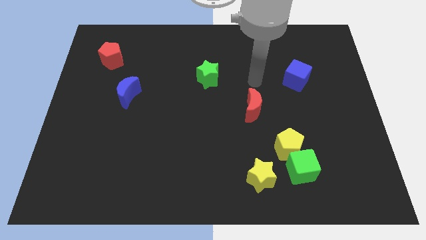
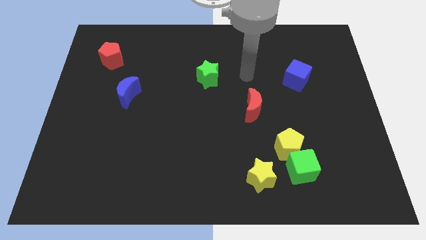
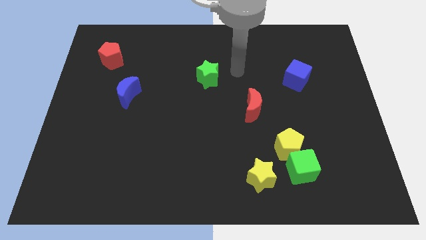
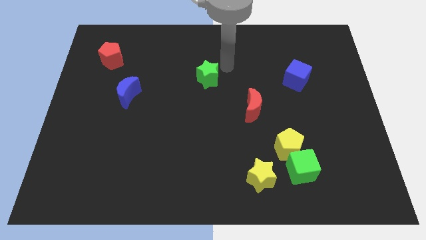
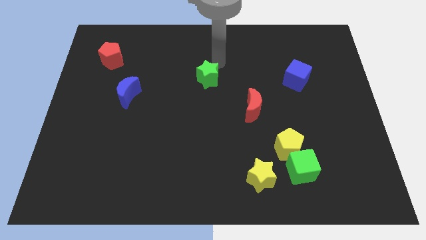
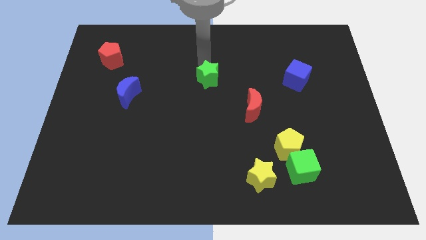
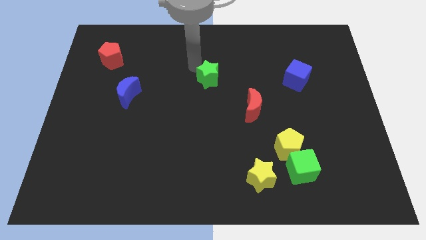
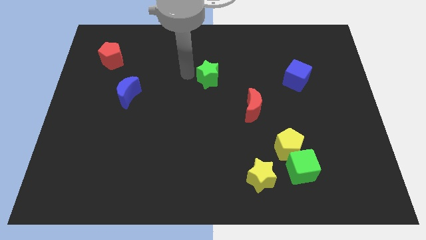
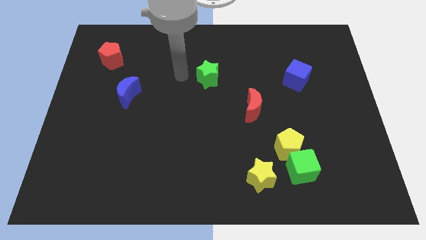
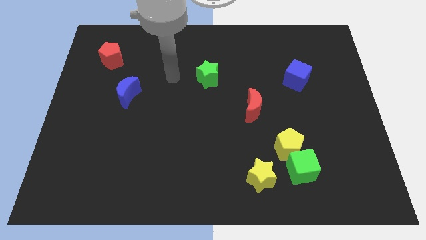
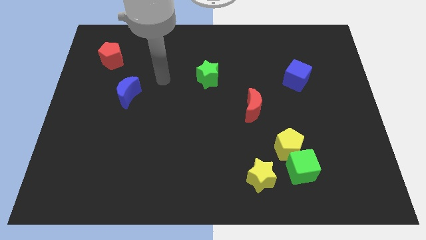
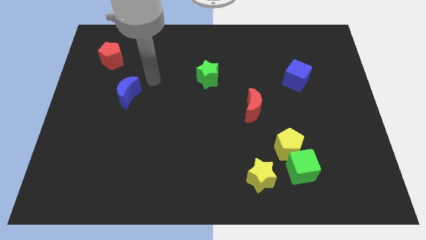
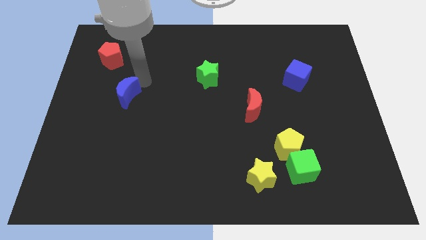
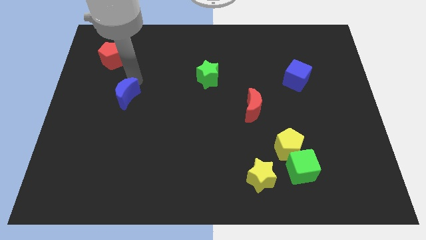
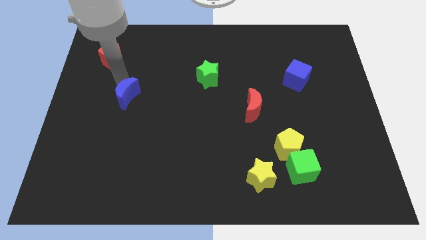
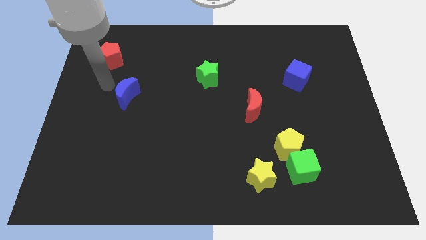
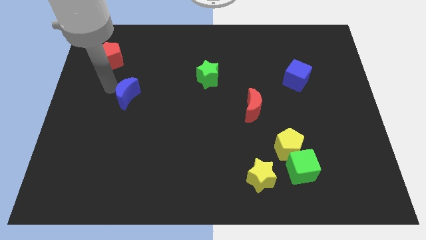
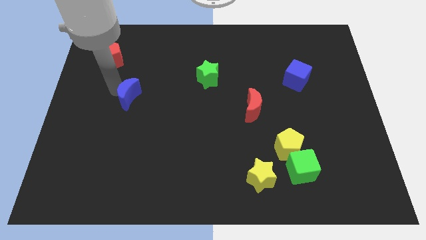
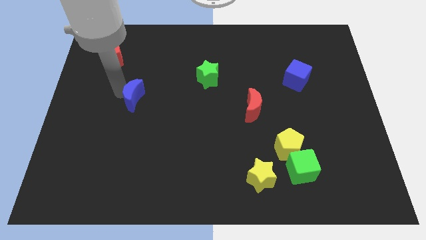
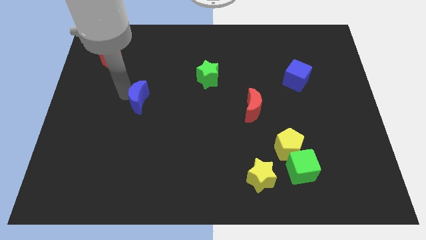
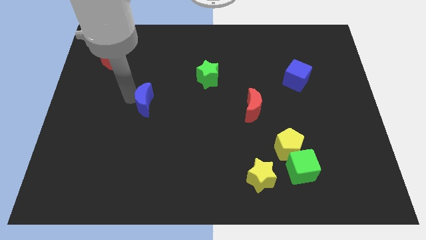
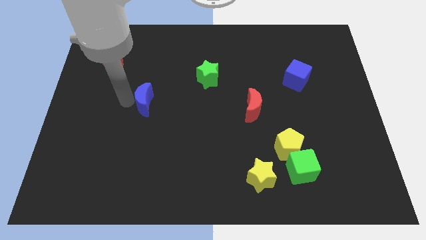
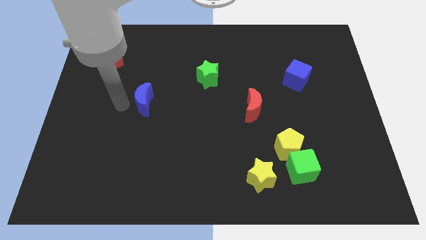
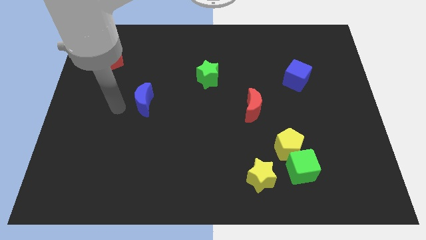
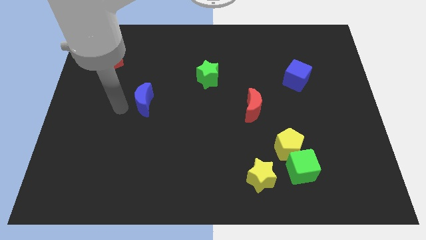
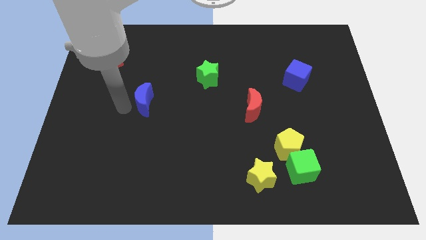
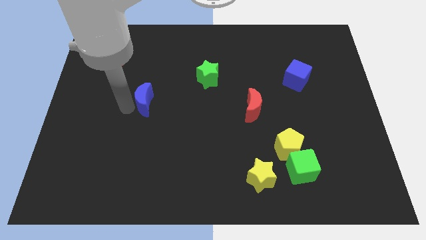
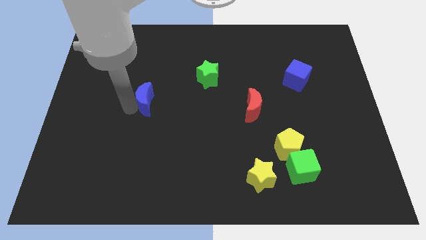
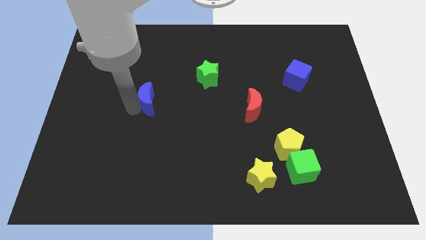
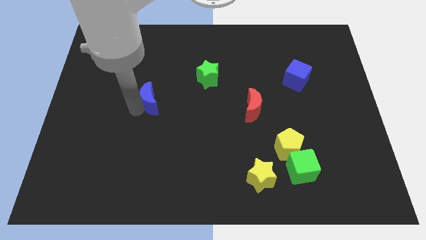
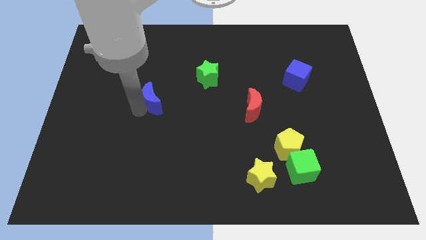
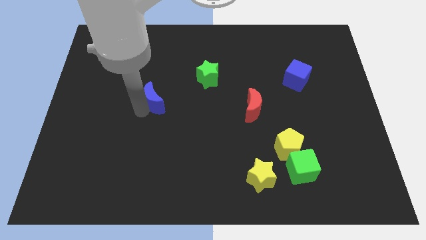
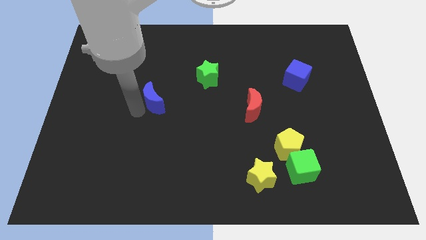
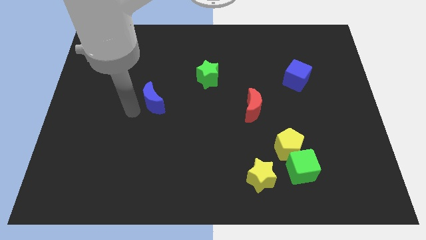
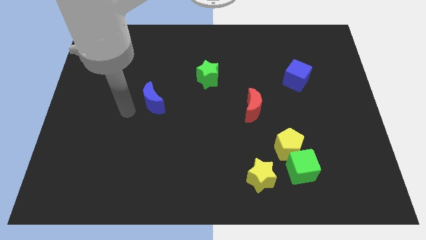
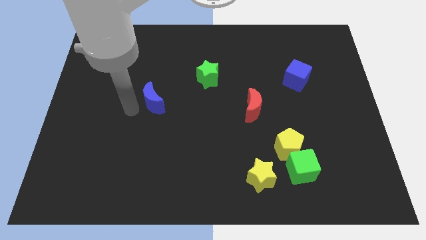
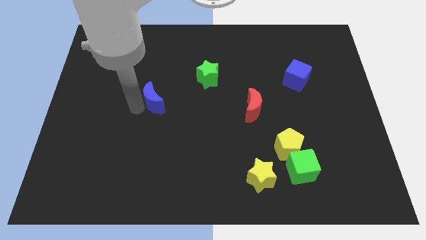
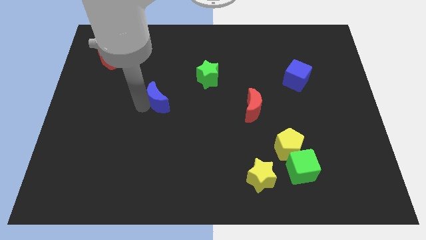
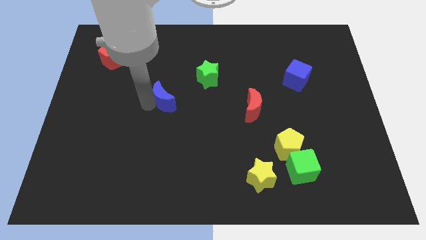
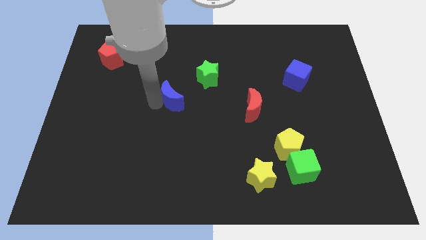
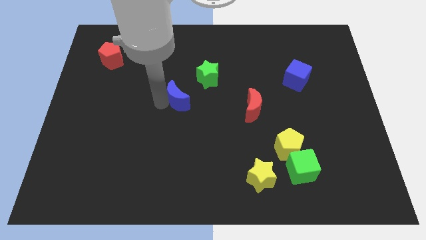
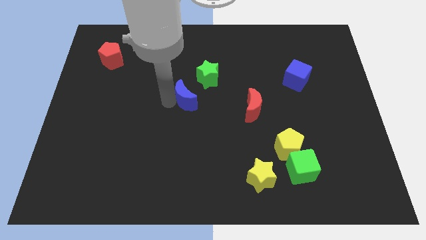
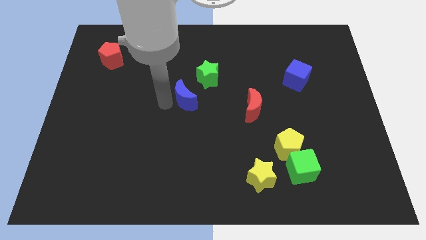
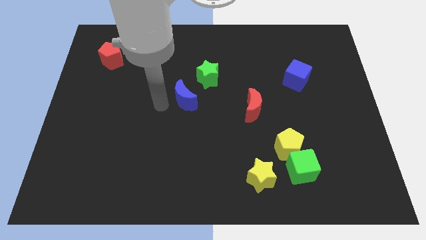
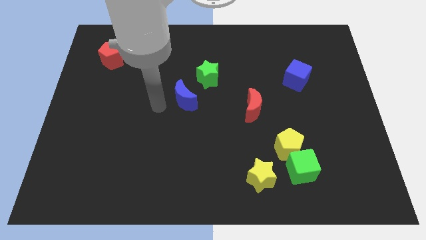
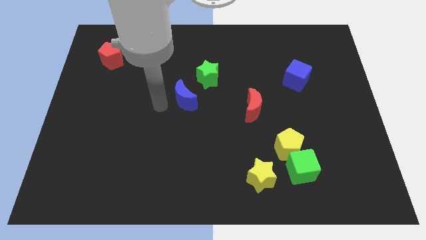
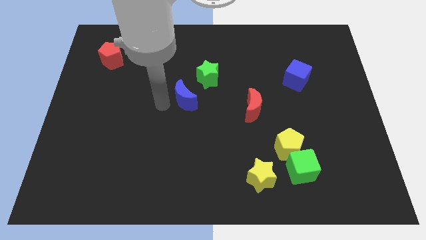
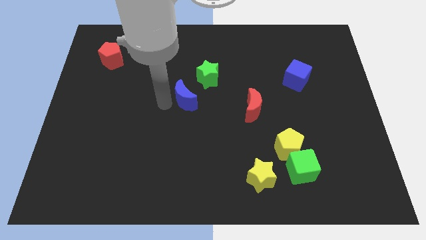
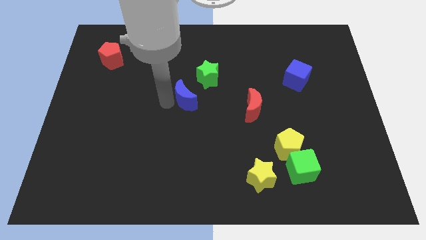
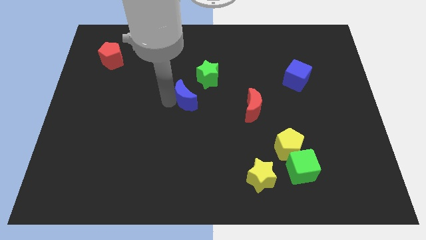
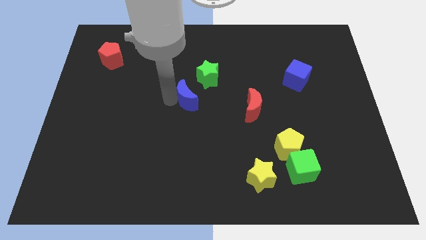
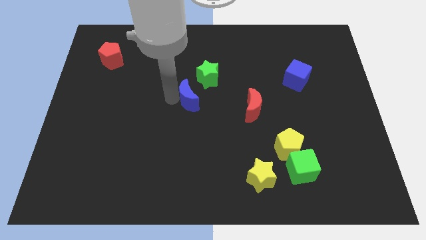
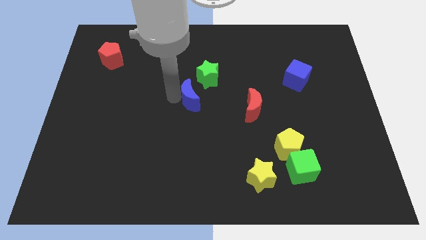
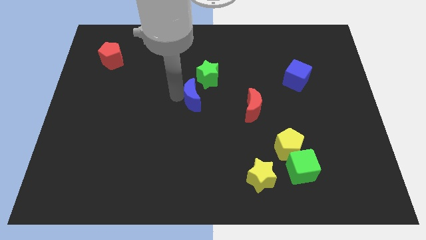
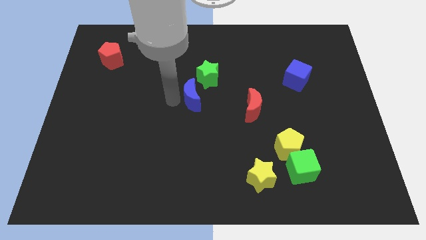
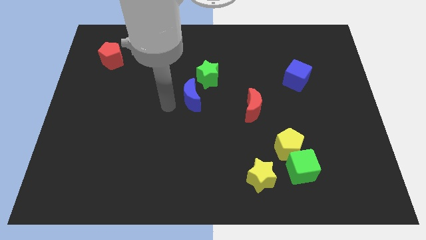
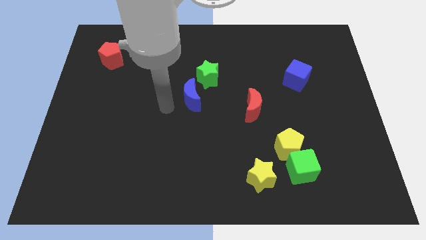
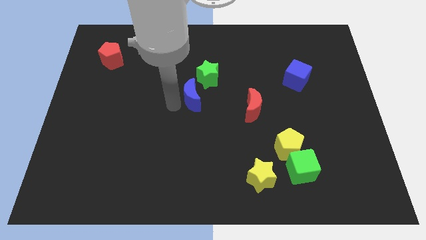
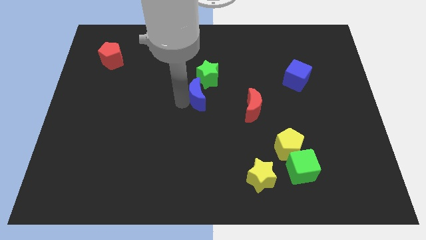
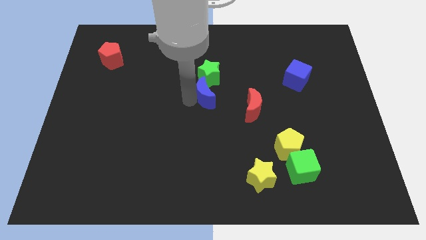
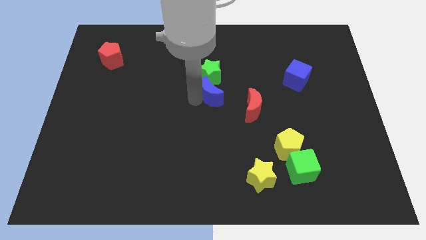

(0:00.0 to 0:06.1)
move the blue moon to the right

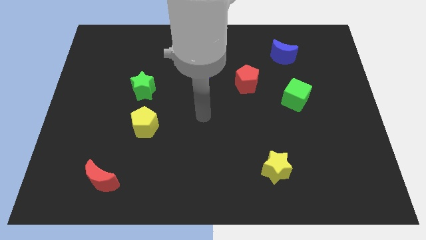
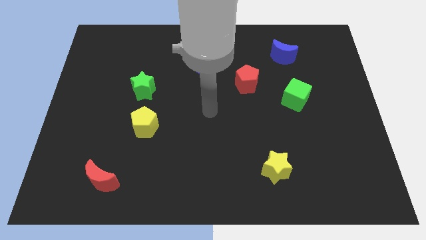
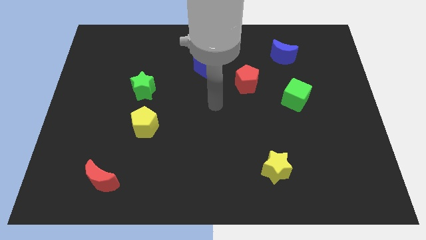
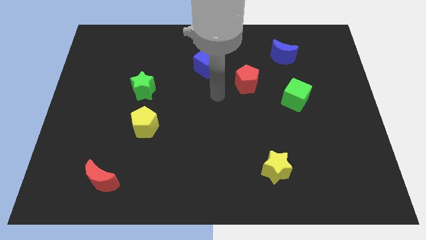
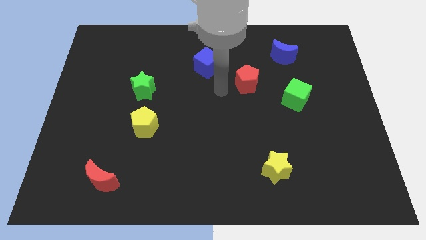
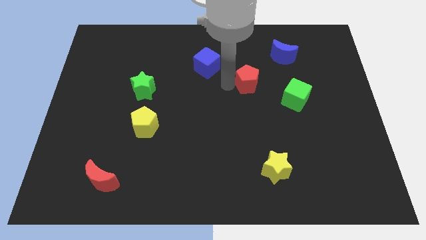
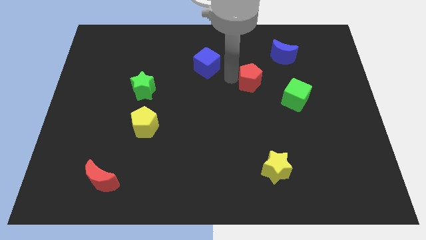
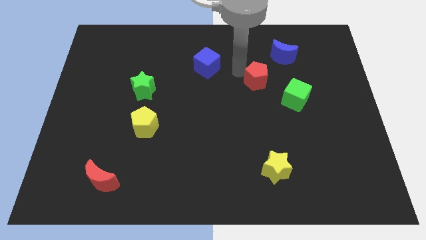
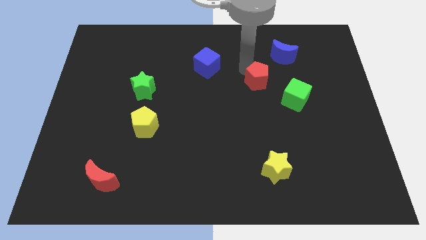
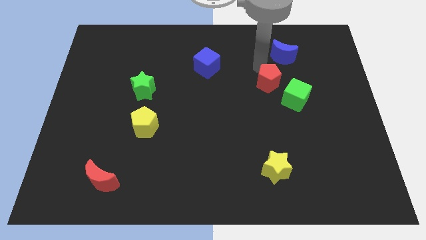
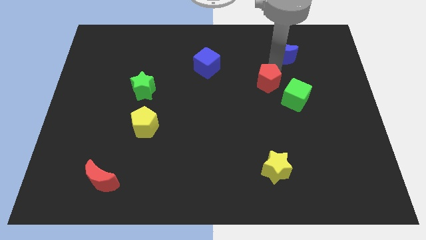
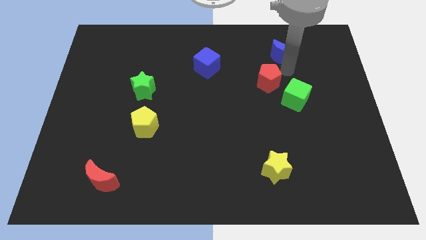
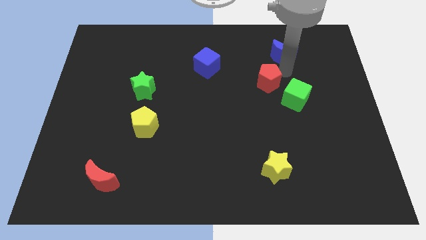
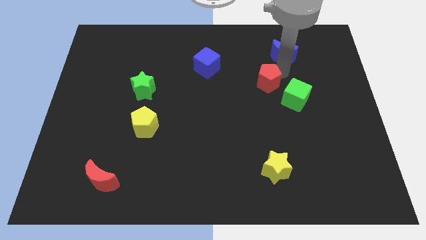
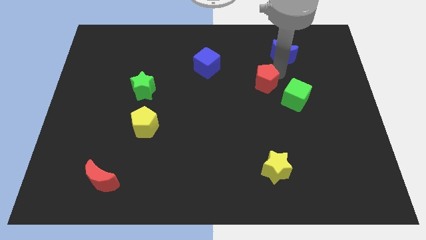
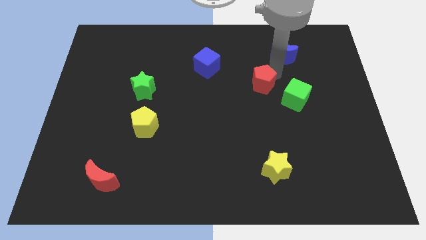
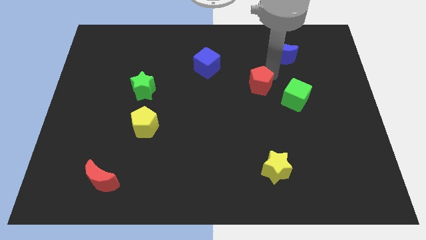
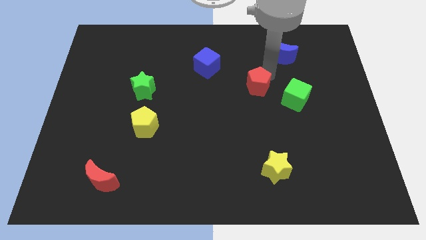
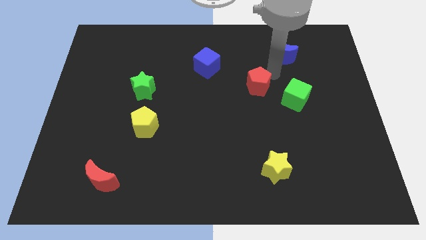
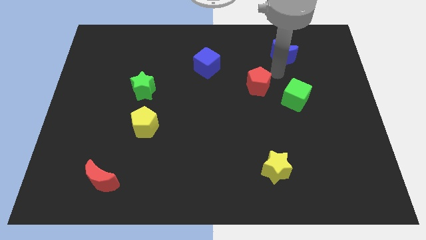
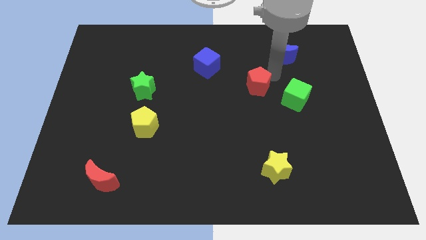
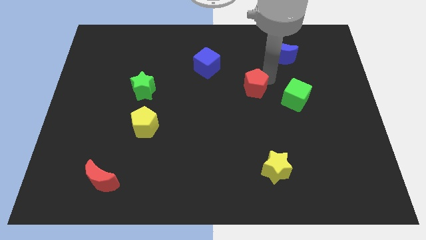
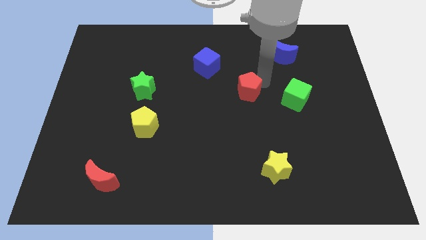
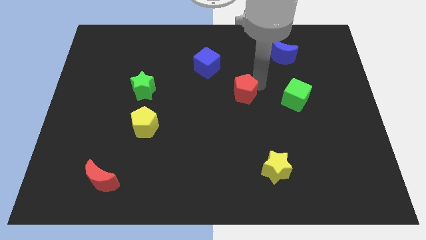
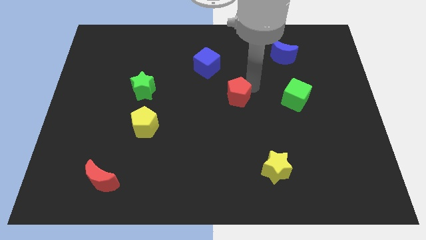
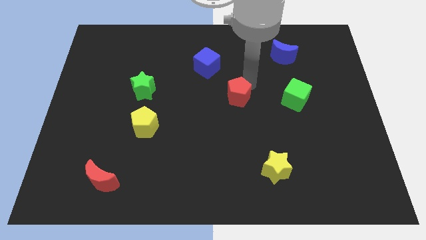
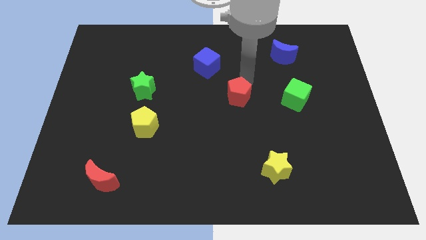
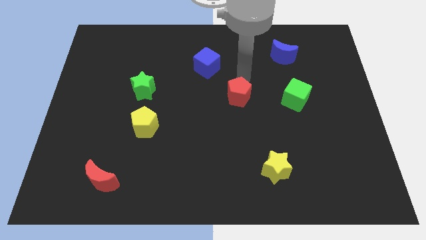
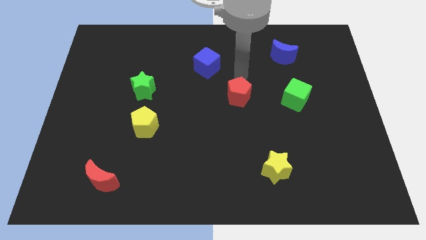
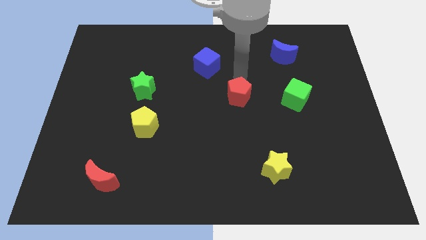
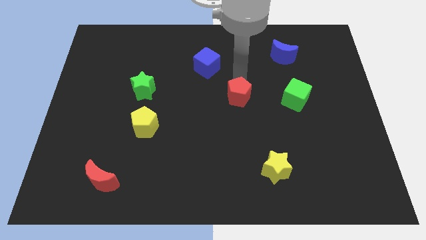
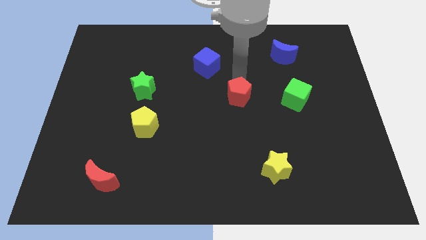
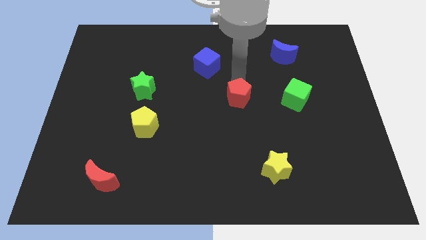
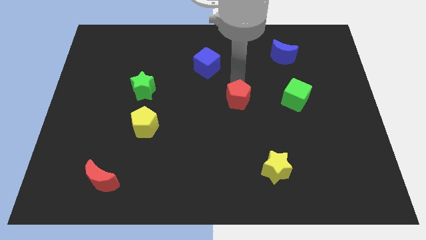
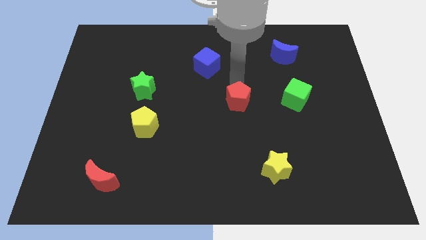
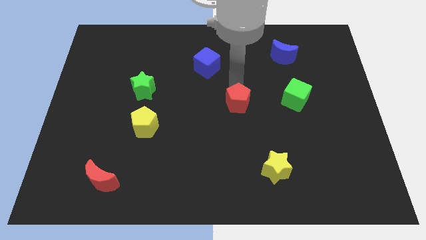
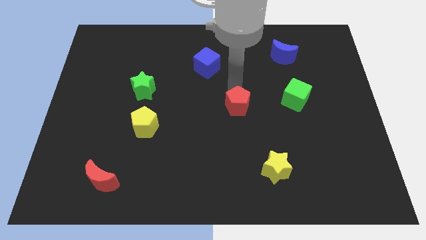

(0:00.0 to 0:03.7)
slightly push the red pentagon down
